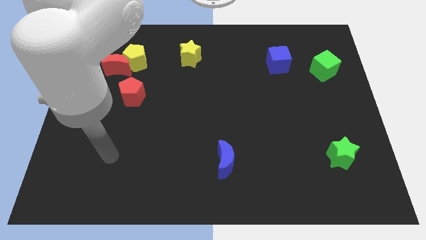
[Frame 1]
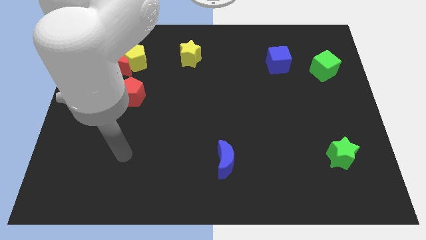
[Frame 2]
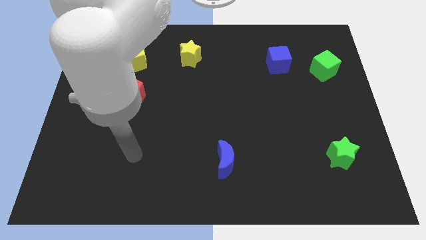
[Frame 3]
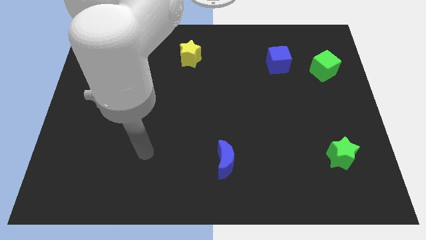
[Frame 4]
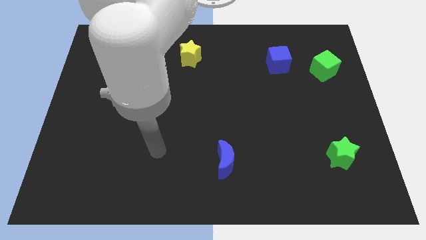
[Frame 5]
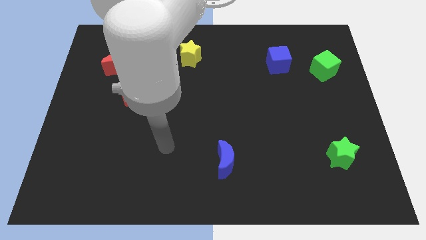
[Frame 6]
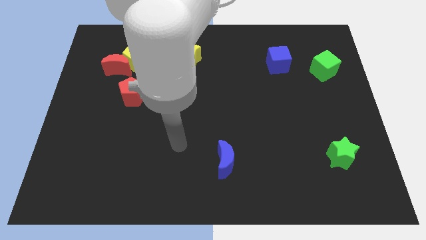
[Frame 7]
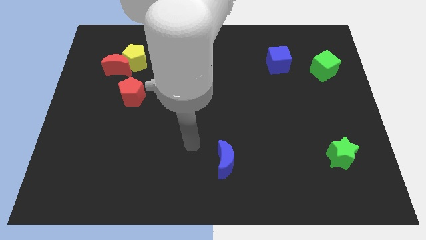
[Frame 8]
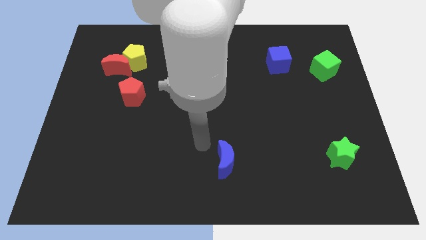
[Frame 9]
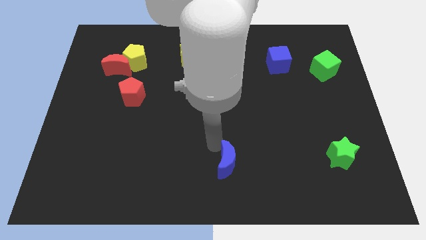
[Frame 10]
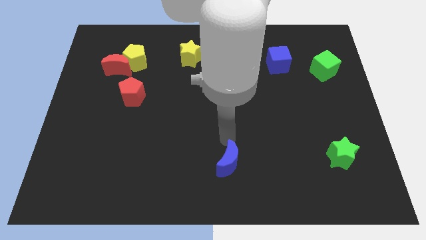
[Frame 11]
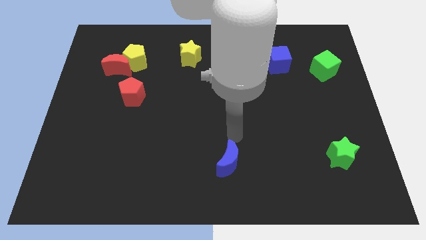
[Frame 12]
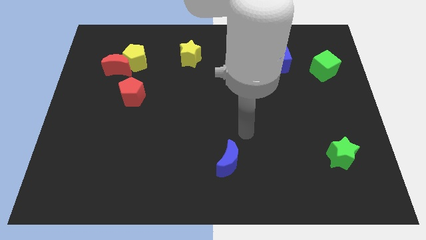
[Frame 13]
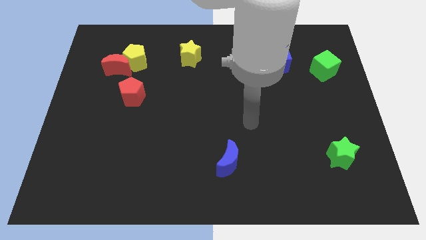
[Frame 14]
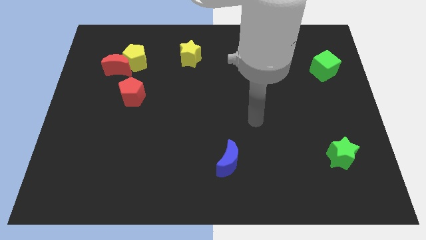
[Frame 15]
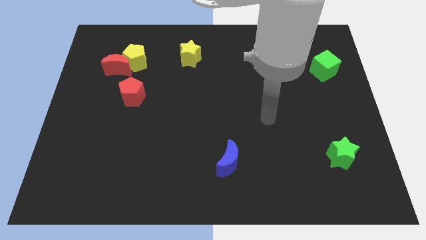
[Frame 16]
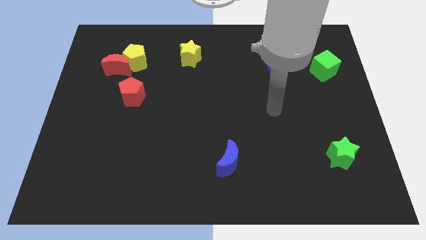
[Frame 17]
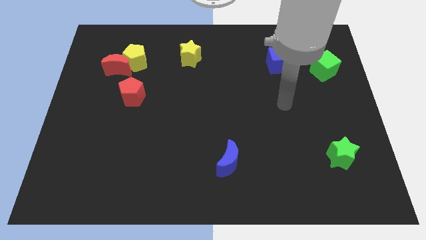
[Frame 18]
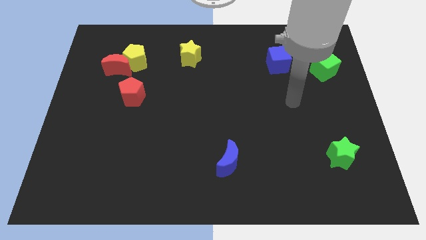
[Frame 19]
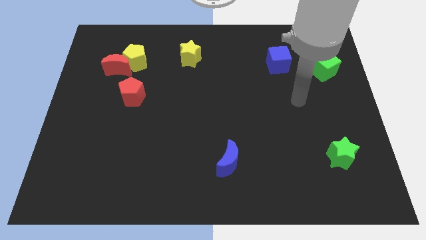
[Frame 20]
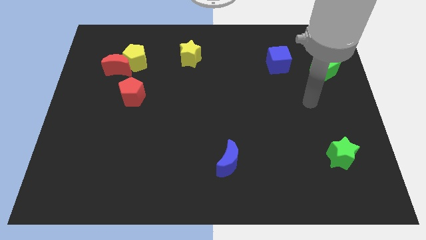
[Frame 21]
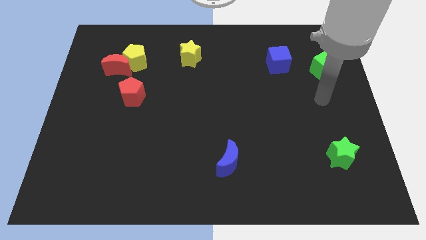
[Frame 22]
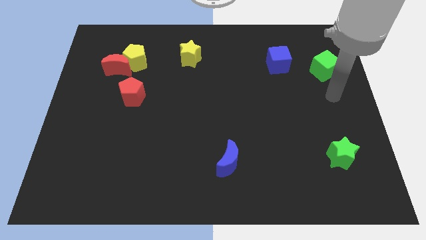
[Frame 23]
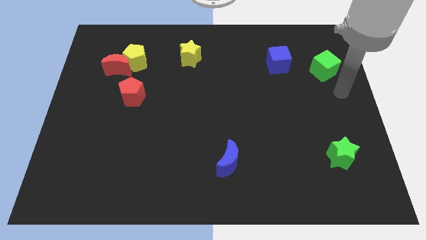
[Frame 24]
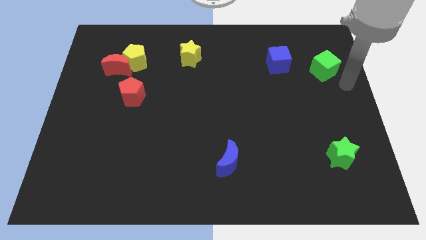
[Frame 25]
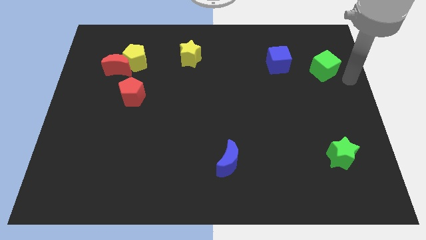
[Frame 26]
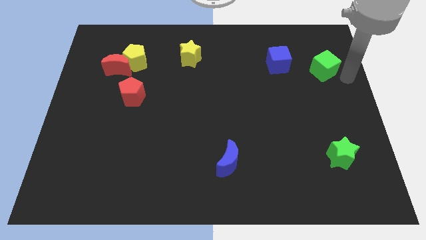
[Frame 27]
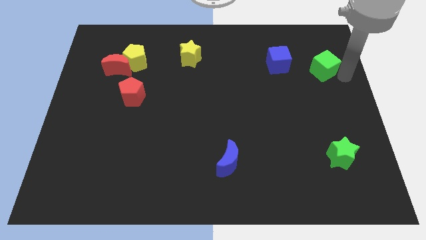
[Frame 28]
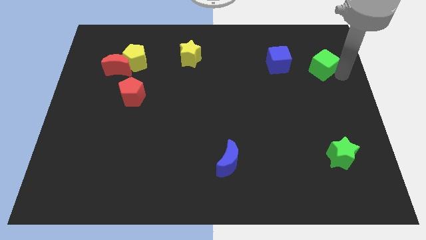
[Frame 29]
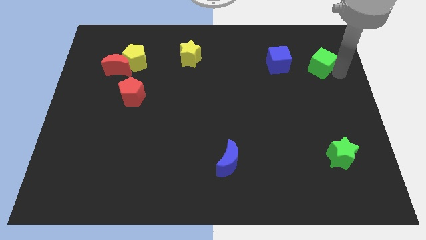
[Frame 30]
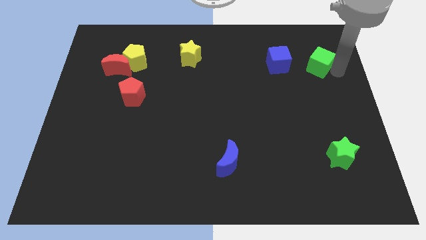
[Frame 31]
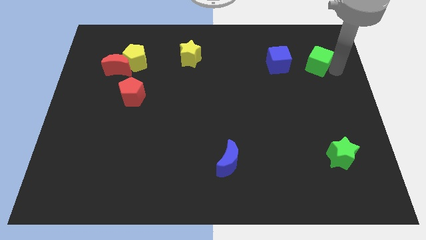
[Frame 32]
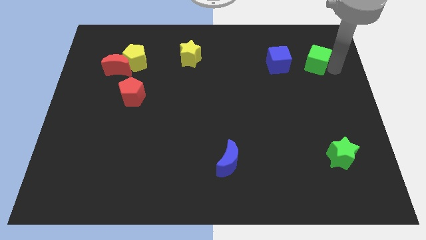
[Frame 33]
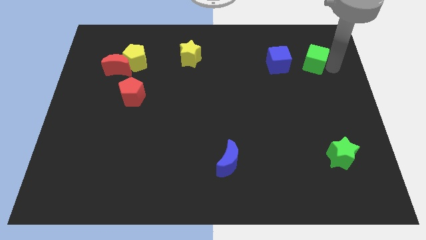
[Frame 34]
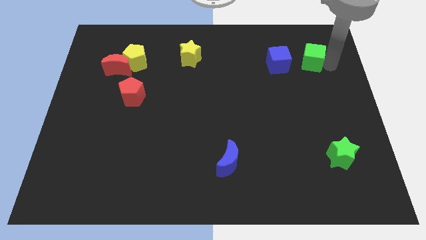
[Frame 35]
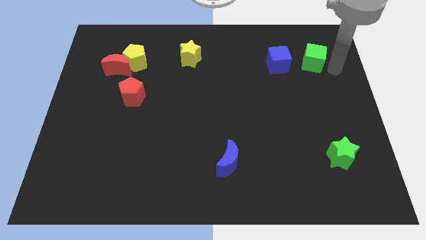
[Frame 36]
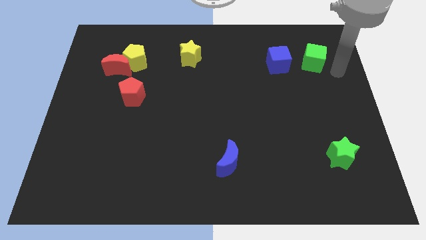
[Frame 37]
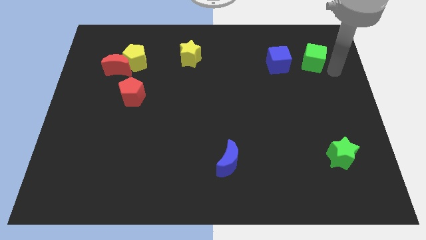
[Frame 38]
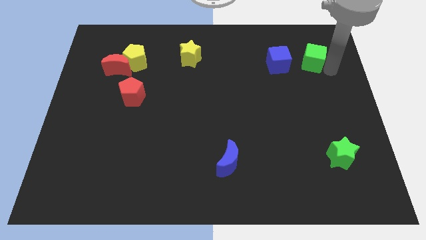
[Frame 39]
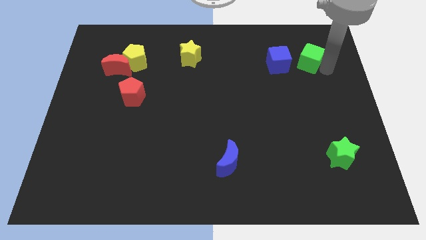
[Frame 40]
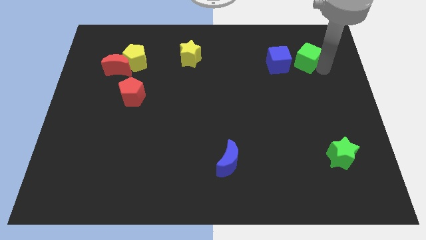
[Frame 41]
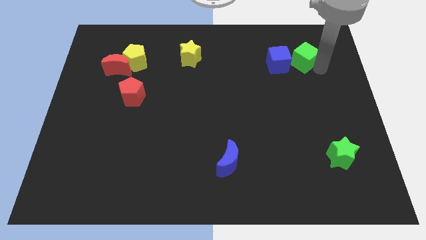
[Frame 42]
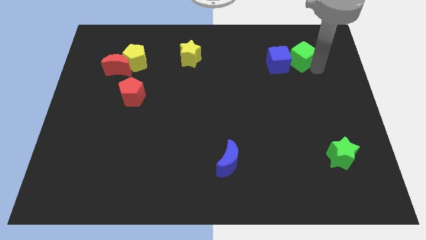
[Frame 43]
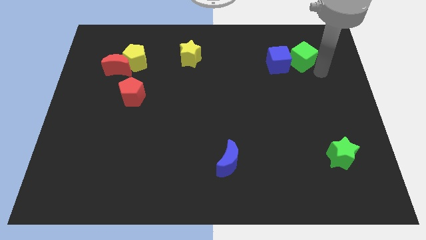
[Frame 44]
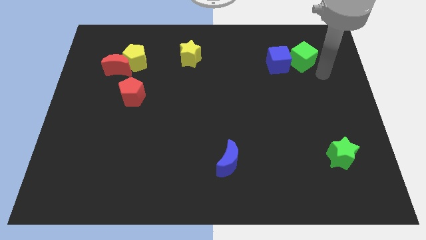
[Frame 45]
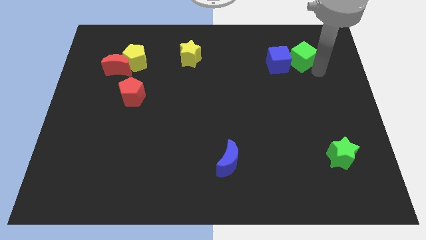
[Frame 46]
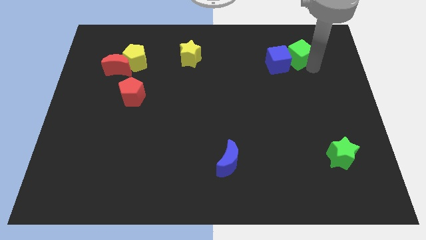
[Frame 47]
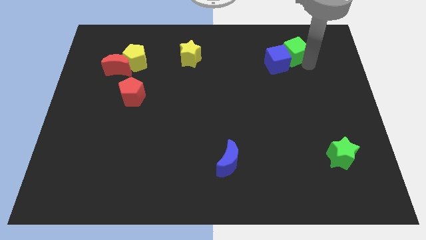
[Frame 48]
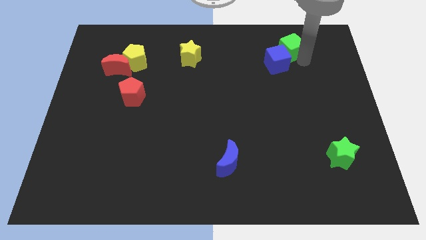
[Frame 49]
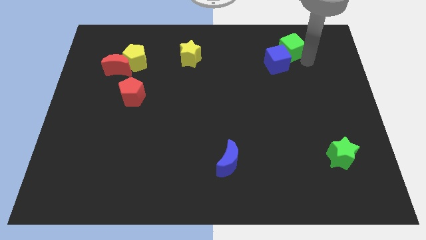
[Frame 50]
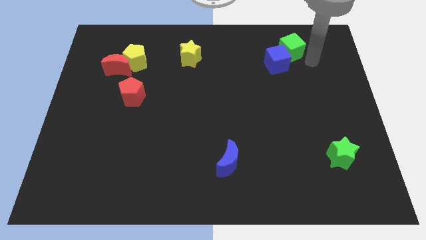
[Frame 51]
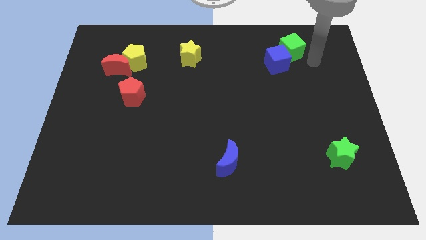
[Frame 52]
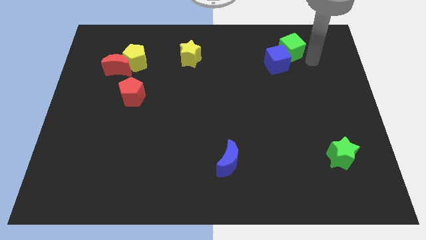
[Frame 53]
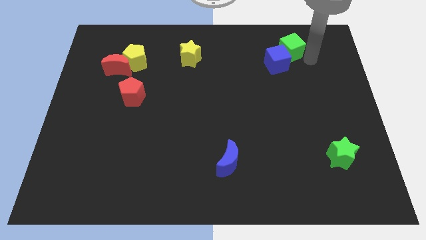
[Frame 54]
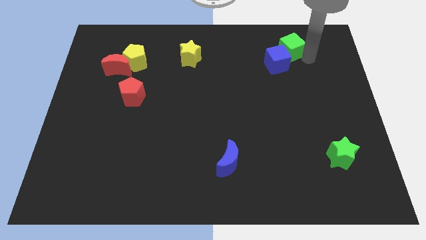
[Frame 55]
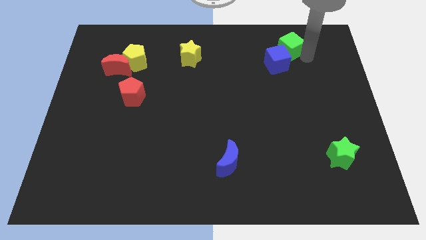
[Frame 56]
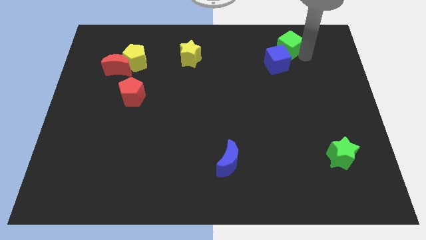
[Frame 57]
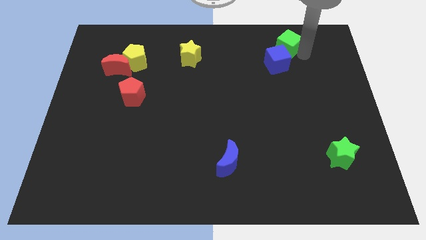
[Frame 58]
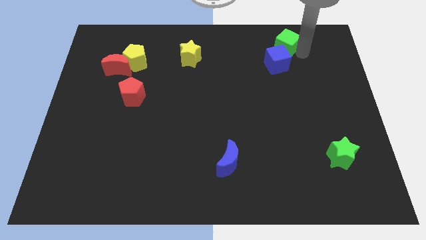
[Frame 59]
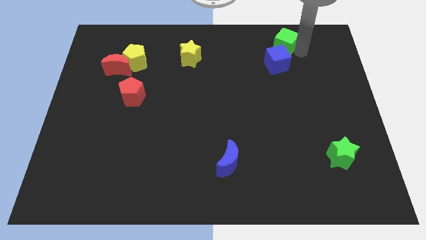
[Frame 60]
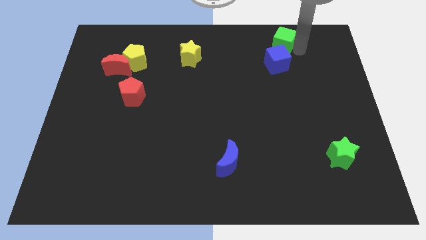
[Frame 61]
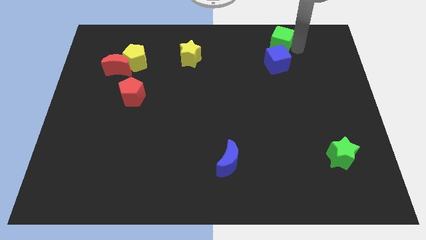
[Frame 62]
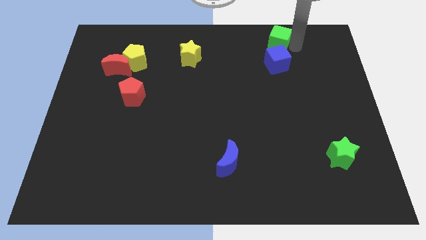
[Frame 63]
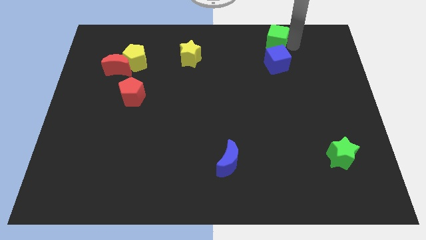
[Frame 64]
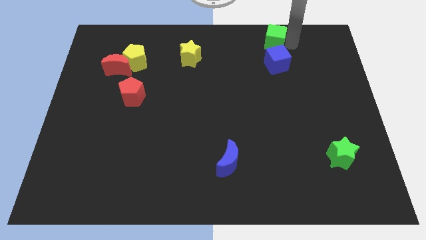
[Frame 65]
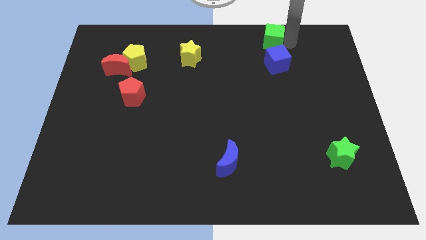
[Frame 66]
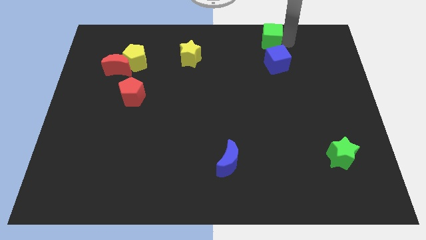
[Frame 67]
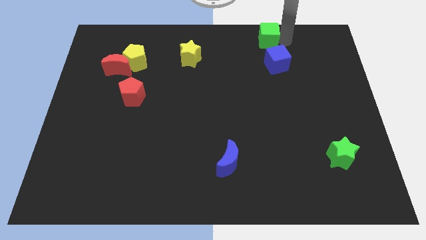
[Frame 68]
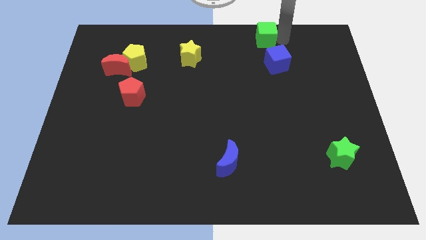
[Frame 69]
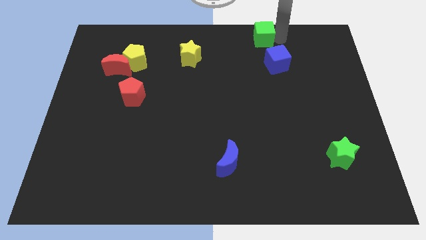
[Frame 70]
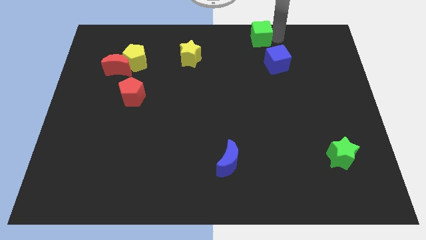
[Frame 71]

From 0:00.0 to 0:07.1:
slide the green cube to the towards your base

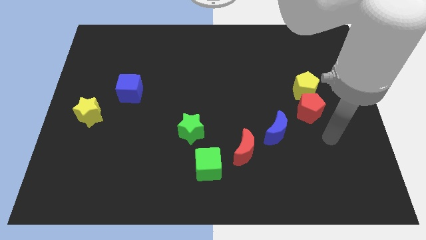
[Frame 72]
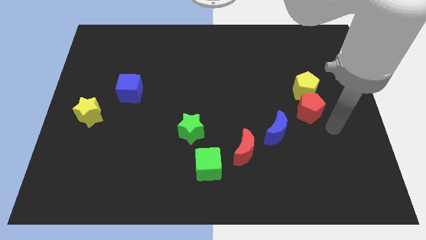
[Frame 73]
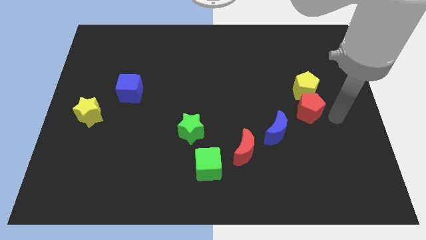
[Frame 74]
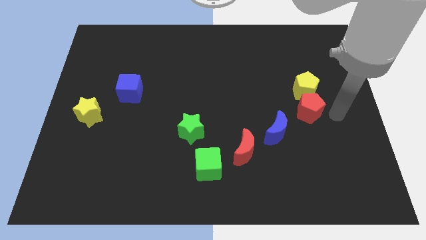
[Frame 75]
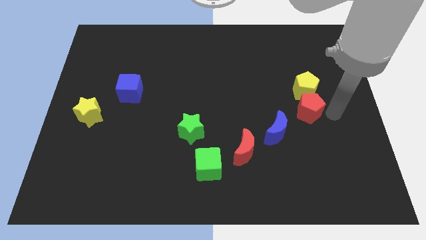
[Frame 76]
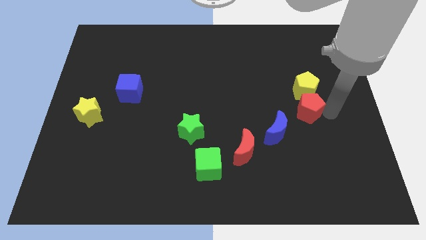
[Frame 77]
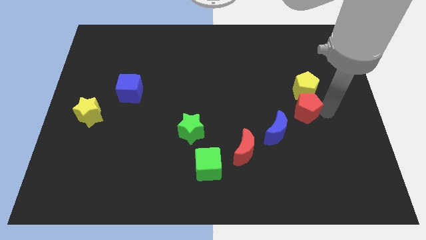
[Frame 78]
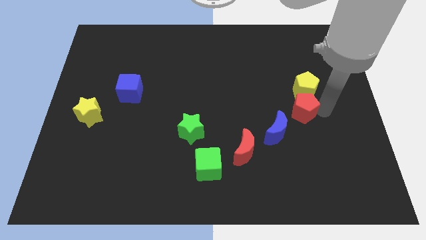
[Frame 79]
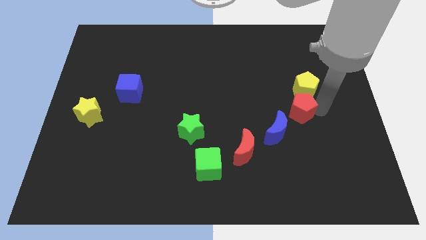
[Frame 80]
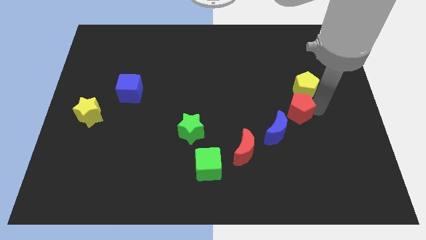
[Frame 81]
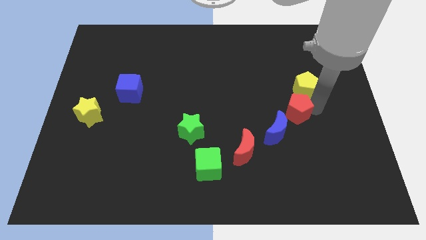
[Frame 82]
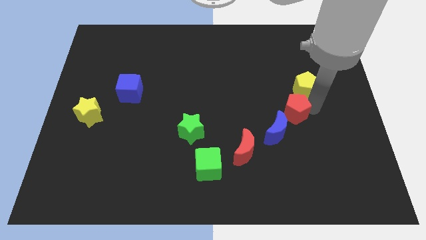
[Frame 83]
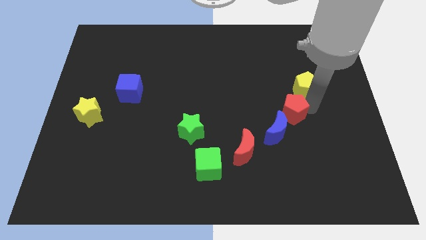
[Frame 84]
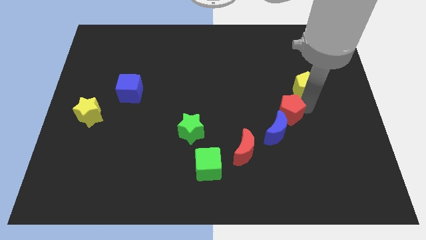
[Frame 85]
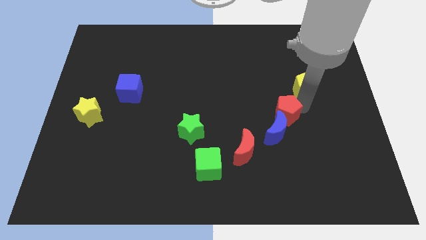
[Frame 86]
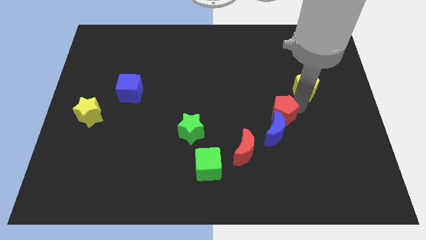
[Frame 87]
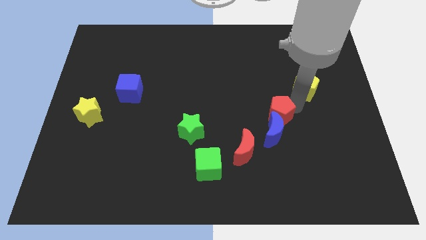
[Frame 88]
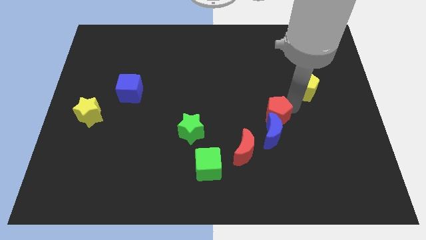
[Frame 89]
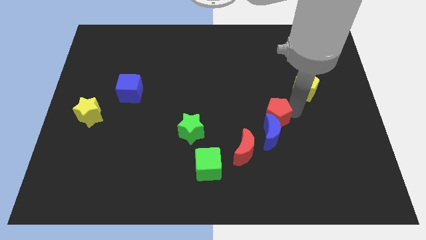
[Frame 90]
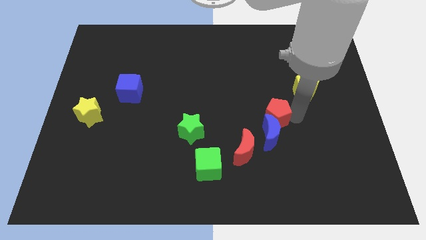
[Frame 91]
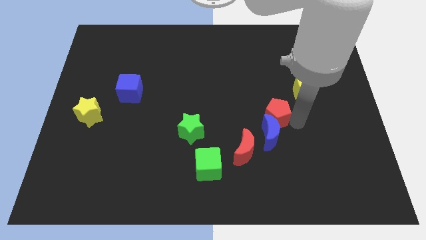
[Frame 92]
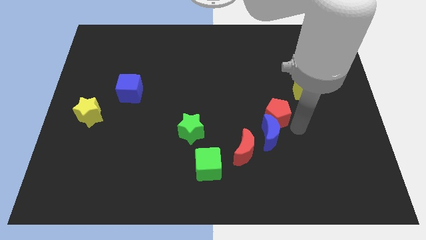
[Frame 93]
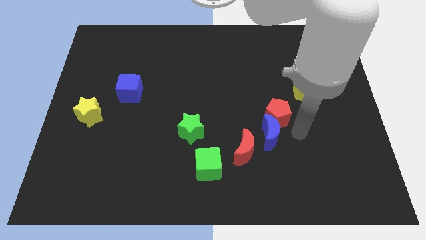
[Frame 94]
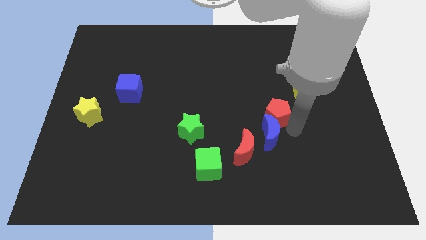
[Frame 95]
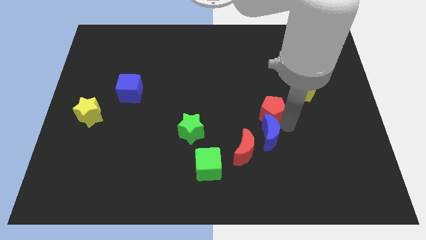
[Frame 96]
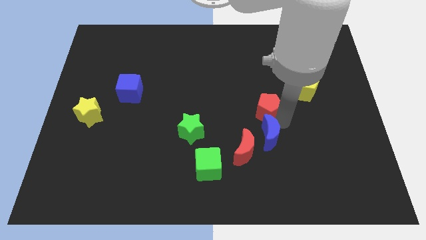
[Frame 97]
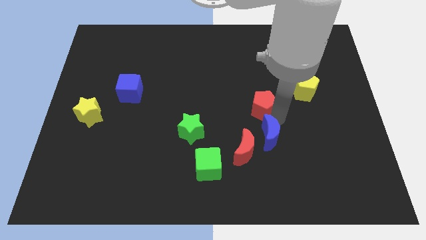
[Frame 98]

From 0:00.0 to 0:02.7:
slide the red pentagon to the center of the board
